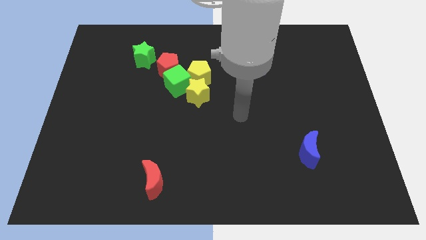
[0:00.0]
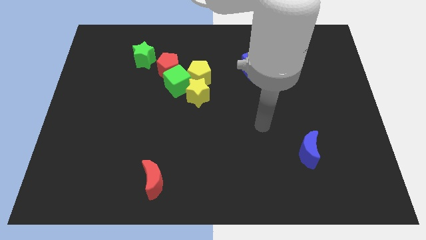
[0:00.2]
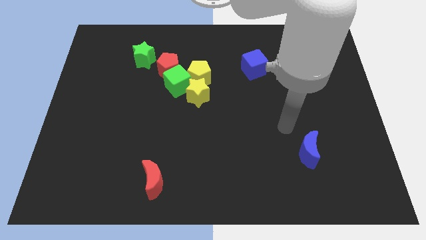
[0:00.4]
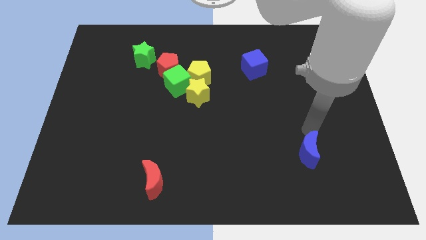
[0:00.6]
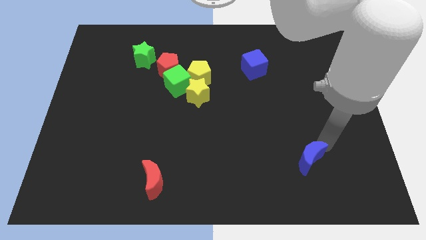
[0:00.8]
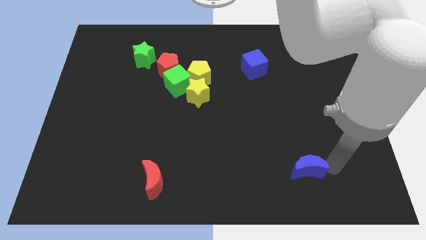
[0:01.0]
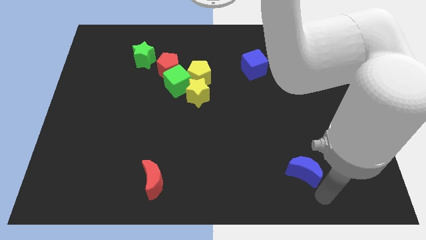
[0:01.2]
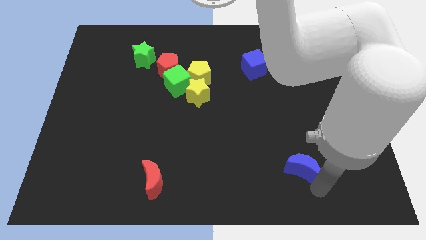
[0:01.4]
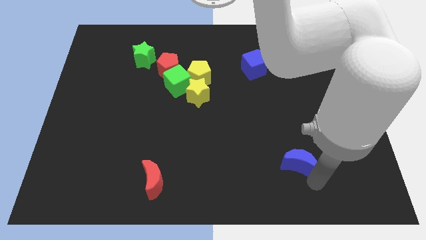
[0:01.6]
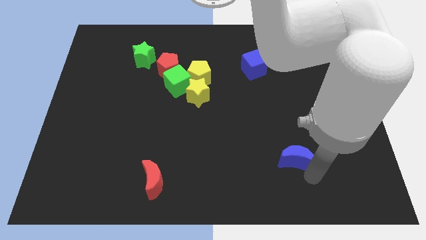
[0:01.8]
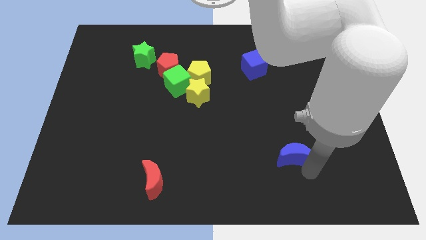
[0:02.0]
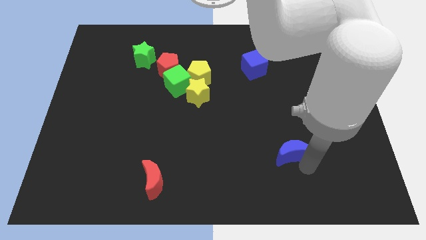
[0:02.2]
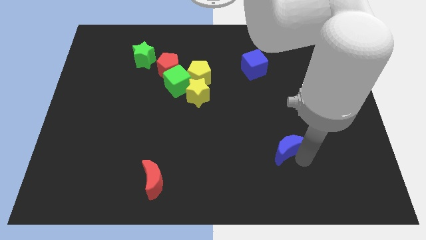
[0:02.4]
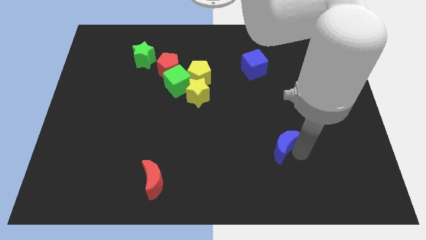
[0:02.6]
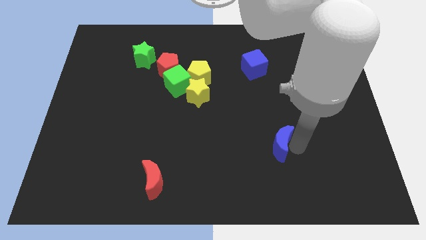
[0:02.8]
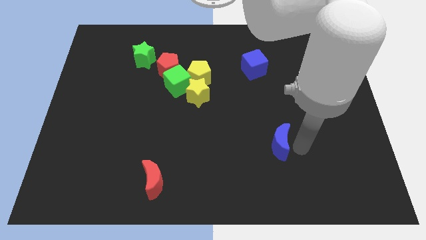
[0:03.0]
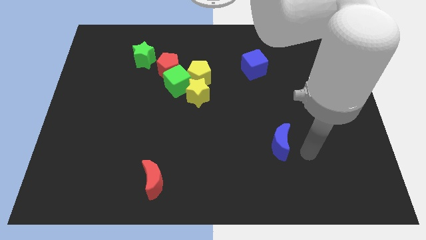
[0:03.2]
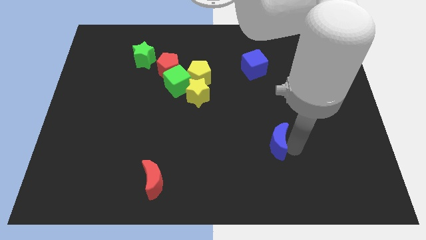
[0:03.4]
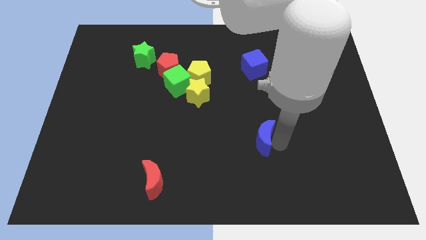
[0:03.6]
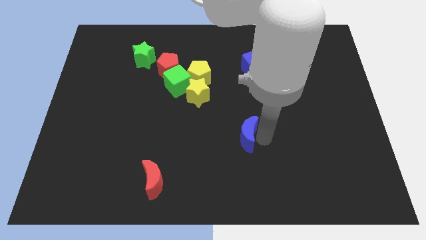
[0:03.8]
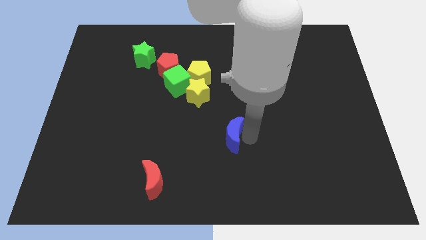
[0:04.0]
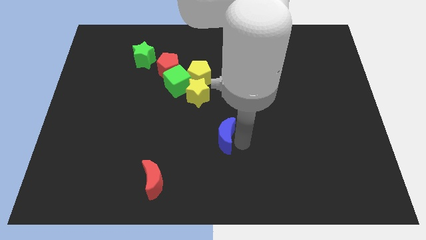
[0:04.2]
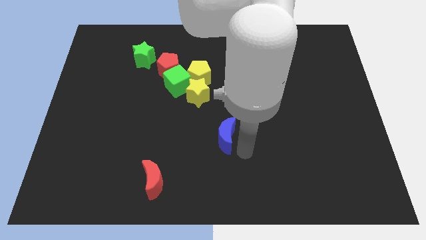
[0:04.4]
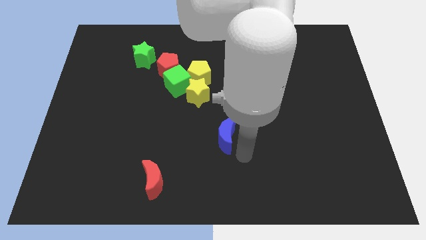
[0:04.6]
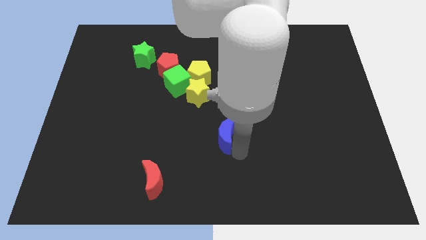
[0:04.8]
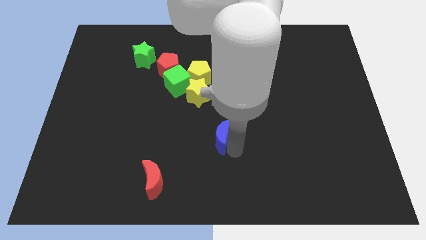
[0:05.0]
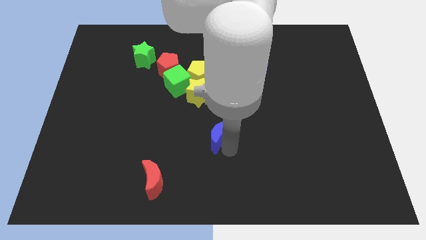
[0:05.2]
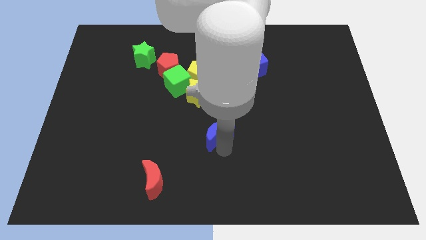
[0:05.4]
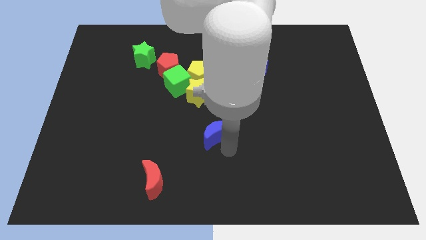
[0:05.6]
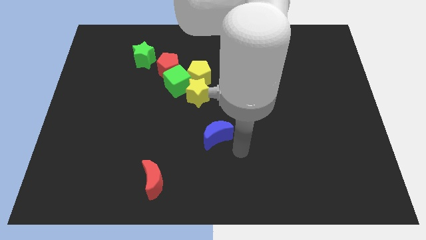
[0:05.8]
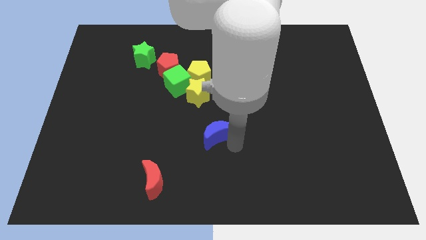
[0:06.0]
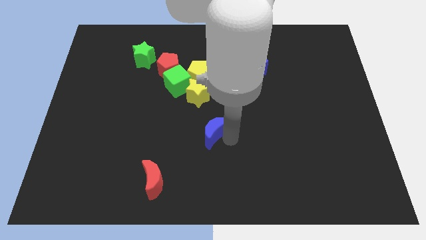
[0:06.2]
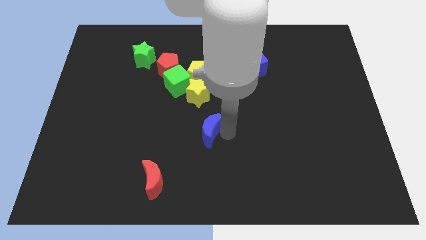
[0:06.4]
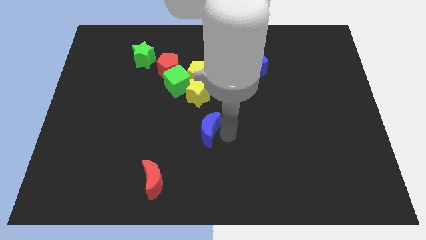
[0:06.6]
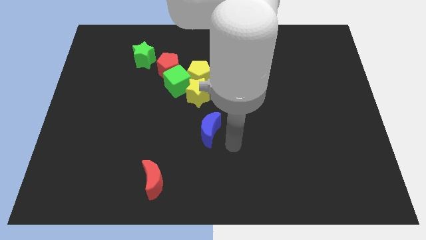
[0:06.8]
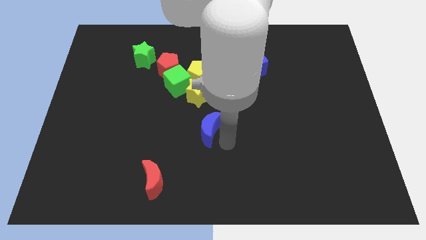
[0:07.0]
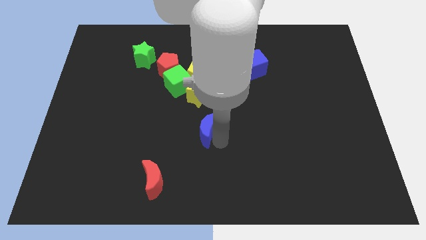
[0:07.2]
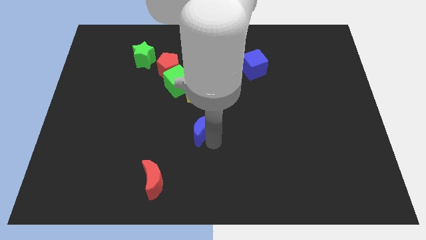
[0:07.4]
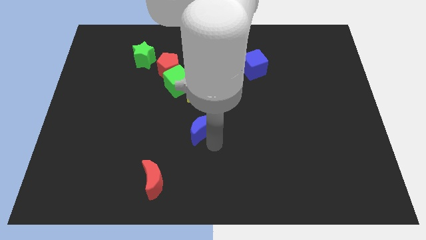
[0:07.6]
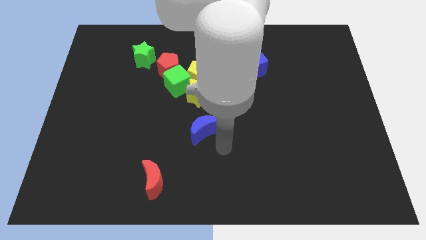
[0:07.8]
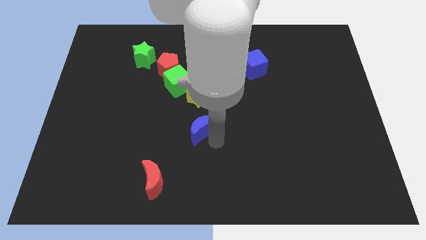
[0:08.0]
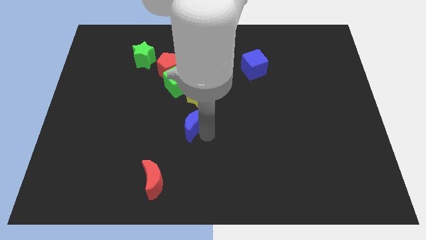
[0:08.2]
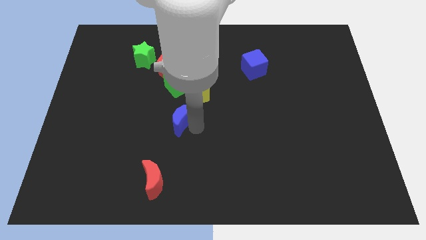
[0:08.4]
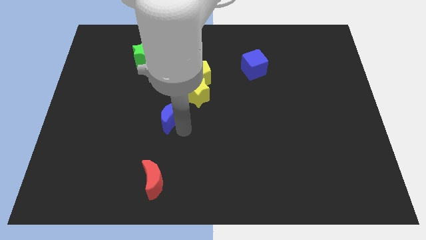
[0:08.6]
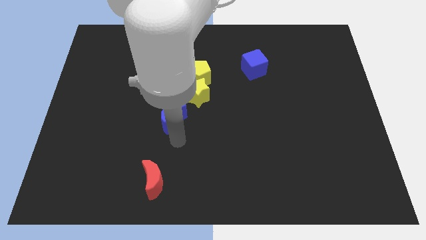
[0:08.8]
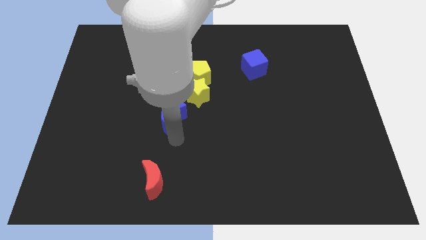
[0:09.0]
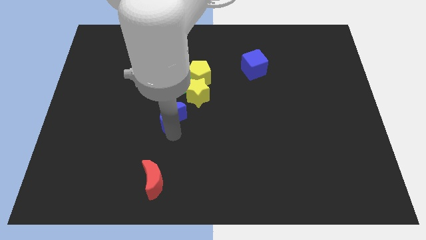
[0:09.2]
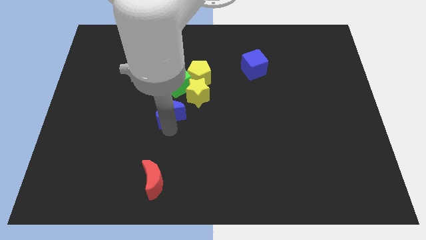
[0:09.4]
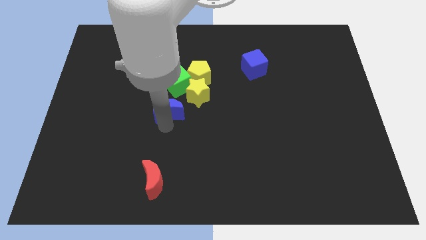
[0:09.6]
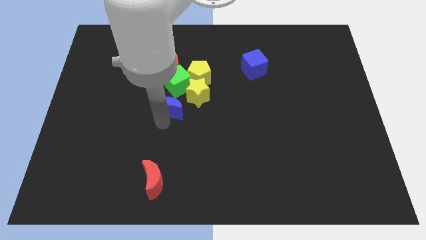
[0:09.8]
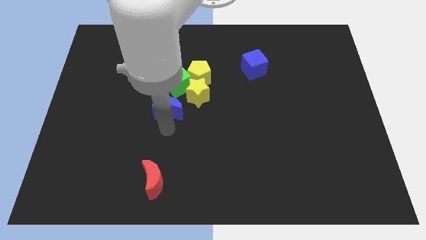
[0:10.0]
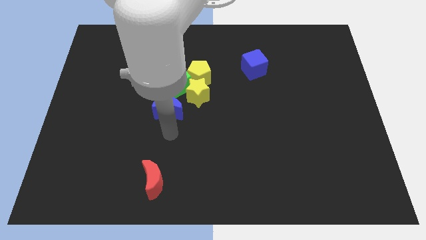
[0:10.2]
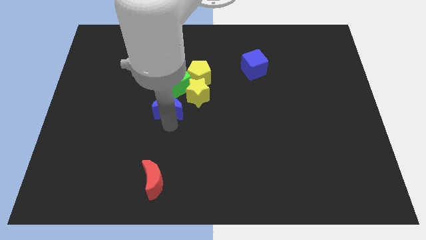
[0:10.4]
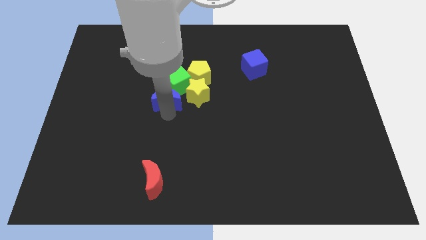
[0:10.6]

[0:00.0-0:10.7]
push the blue moon towards the green cube

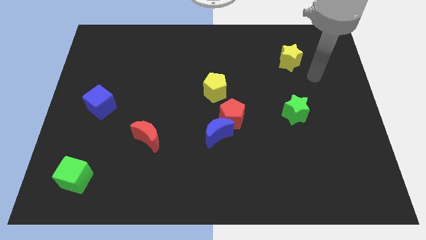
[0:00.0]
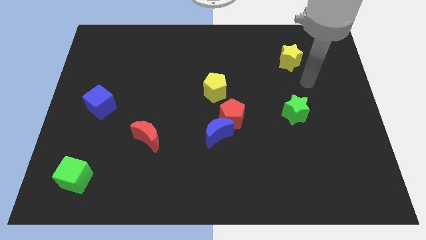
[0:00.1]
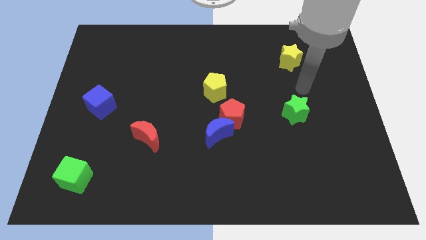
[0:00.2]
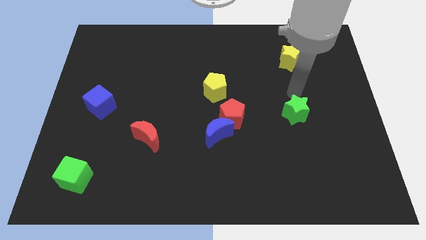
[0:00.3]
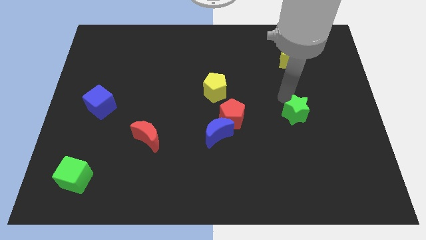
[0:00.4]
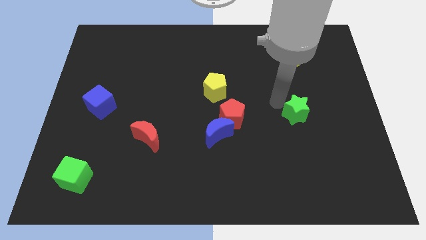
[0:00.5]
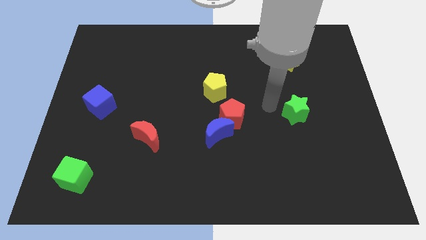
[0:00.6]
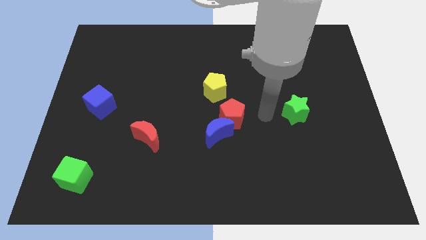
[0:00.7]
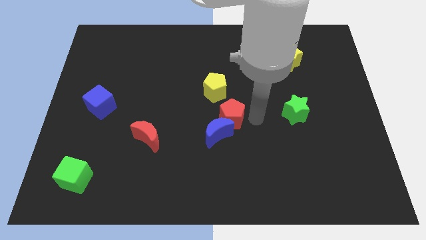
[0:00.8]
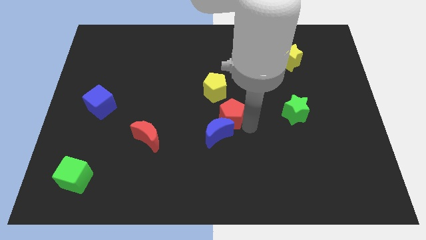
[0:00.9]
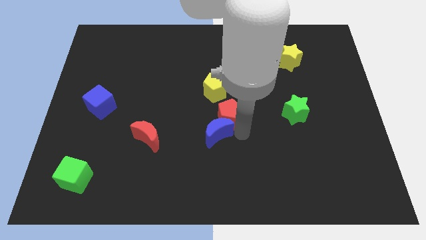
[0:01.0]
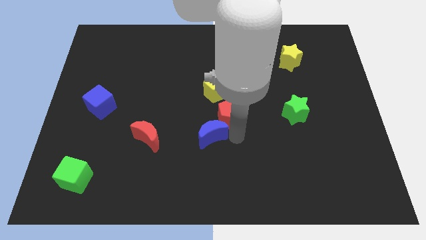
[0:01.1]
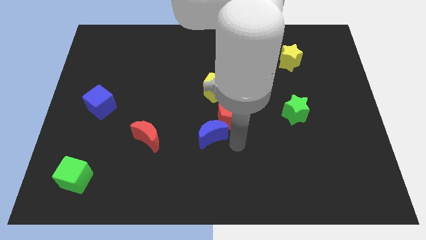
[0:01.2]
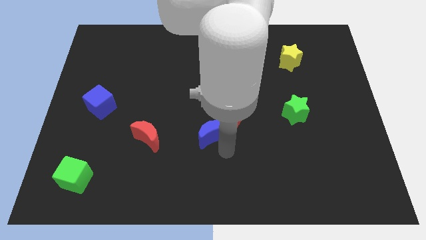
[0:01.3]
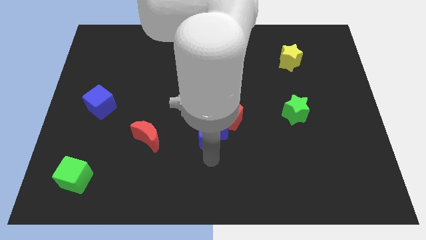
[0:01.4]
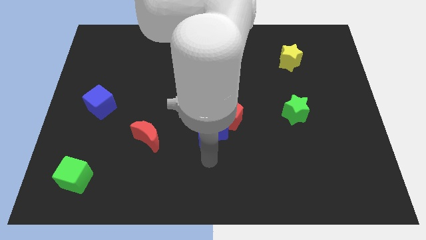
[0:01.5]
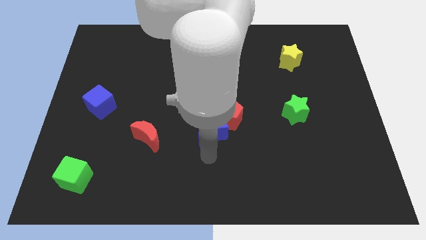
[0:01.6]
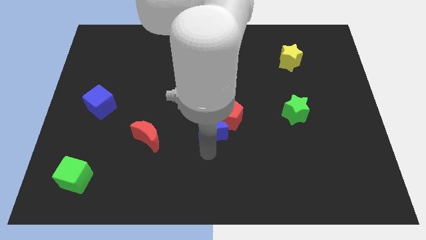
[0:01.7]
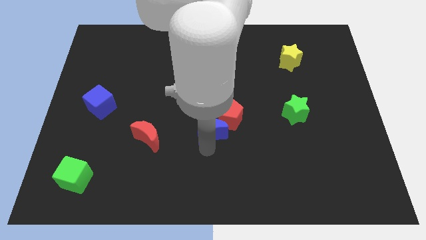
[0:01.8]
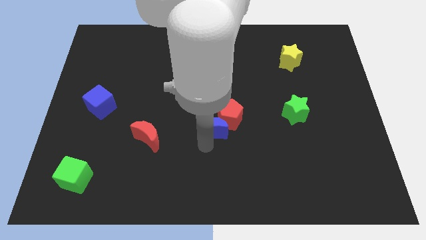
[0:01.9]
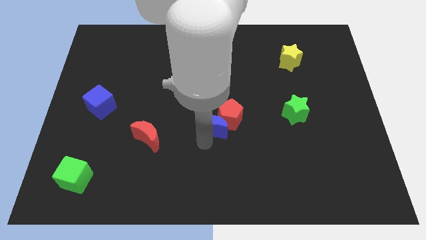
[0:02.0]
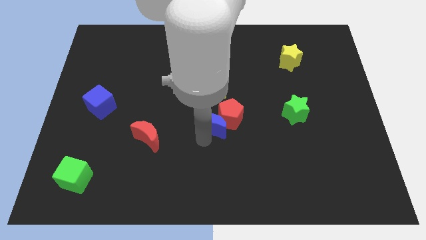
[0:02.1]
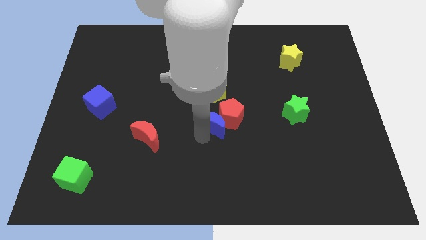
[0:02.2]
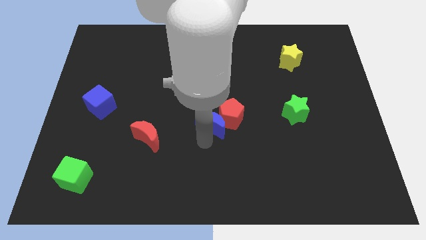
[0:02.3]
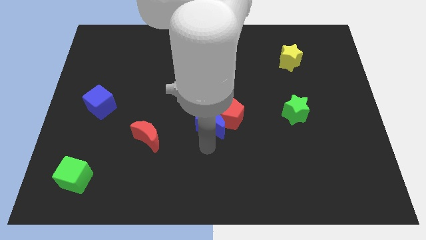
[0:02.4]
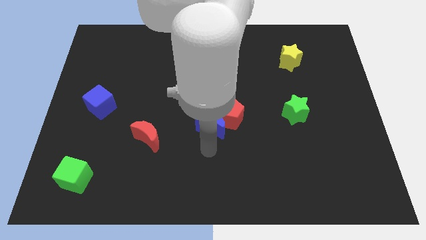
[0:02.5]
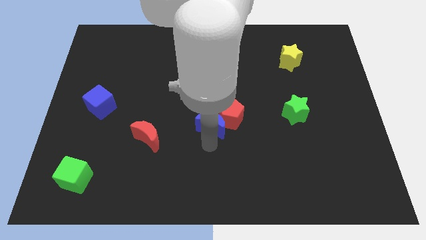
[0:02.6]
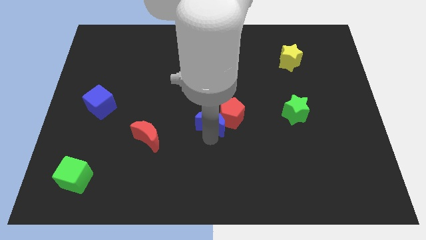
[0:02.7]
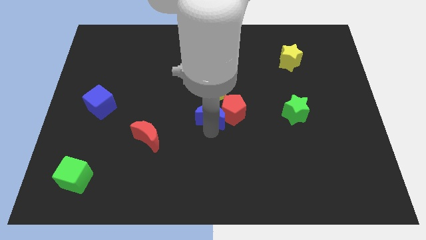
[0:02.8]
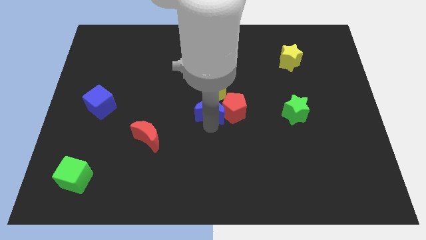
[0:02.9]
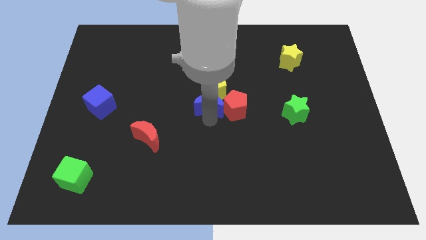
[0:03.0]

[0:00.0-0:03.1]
move the blue moon towards the yellow pentagon
